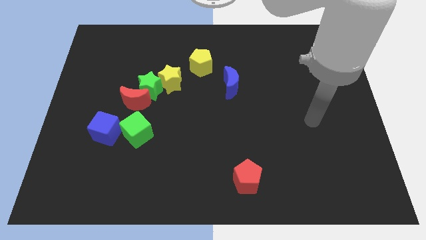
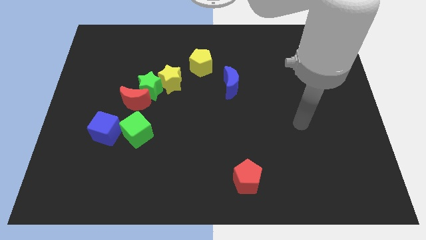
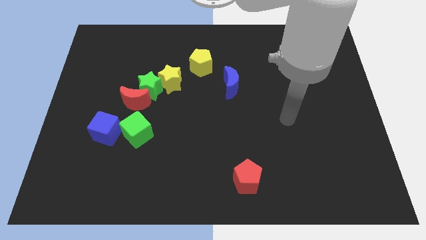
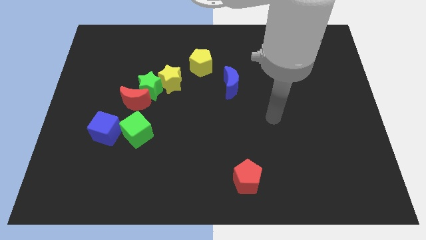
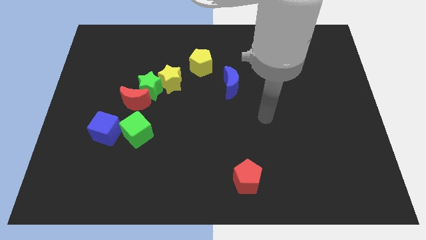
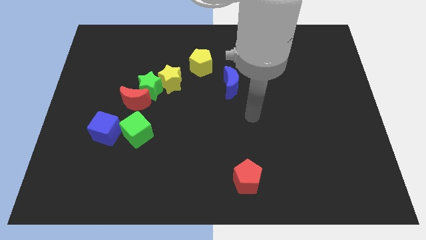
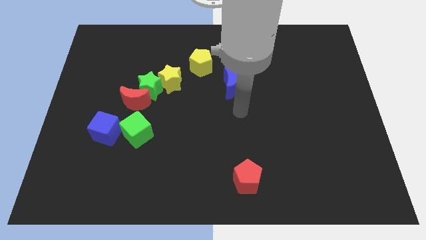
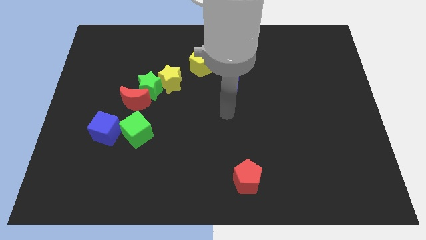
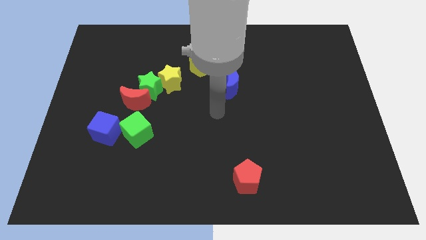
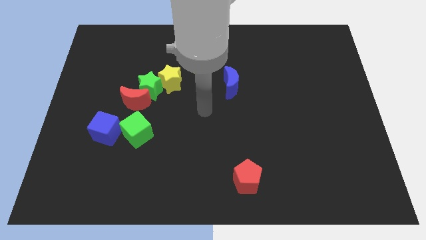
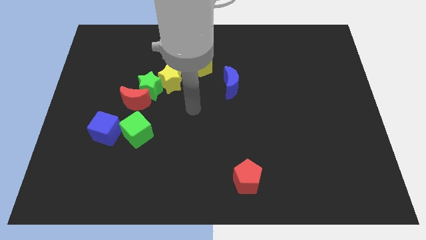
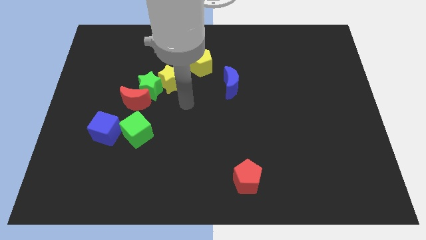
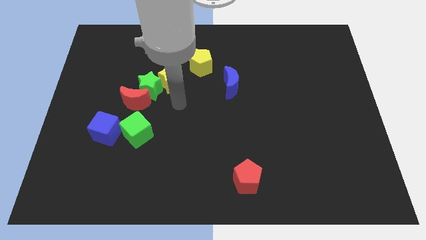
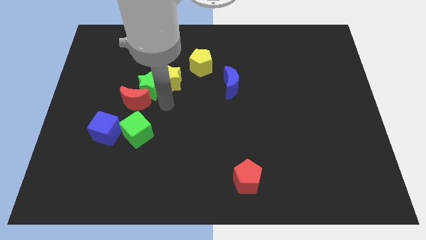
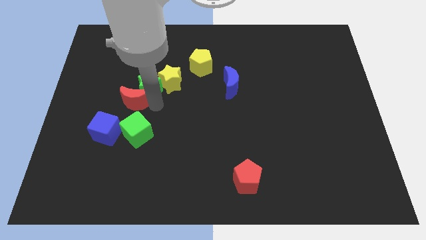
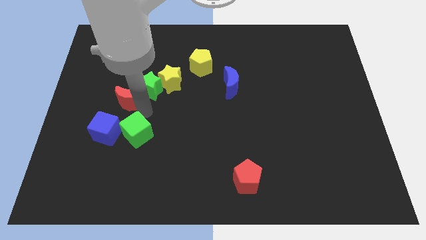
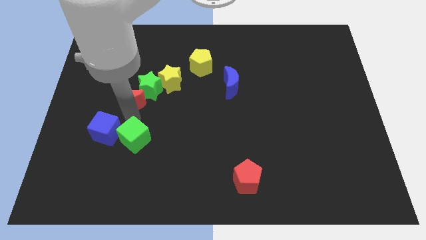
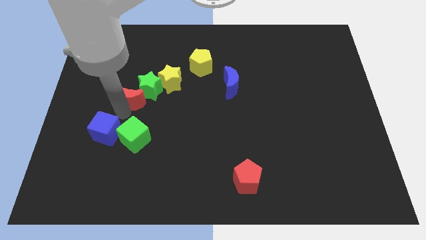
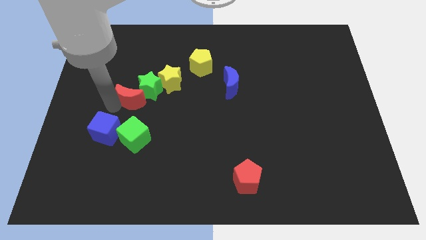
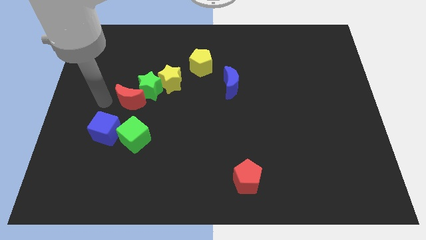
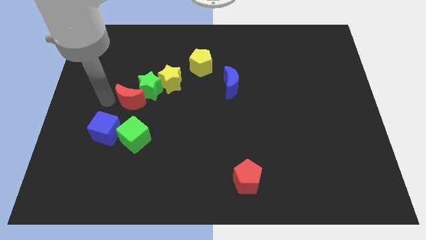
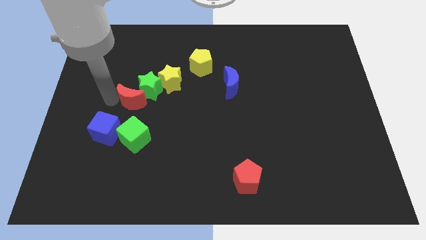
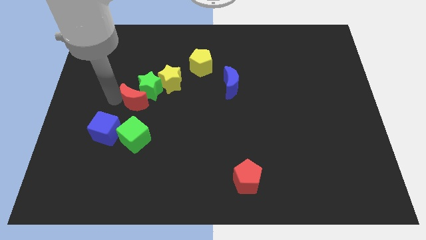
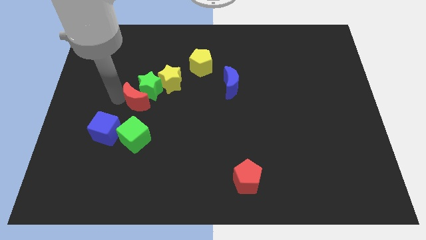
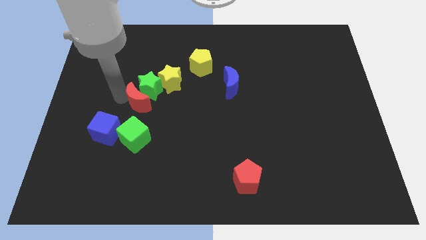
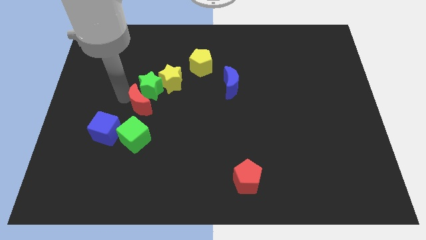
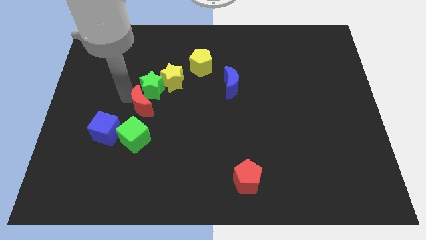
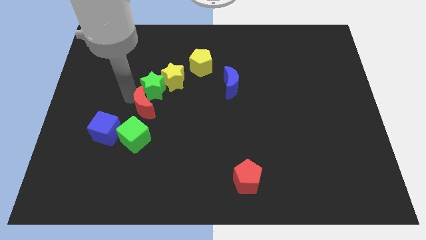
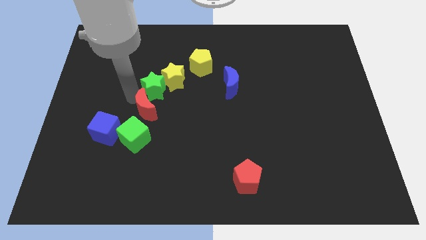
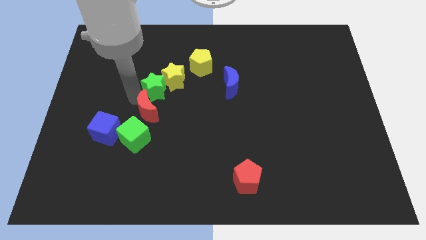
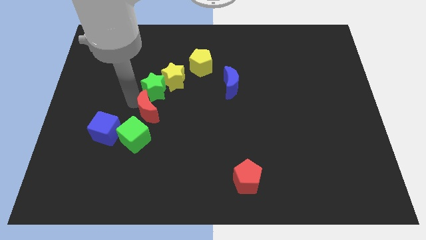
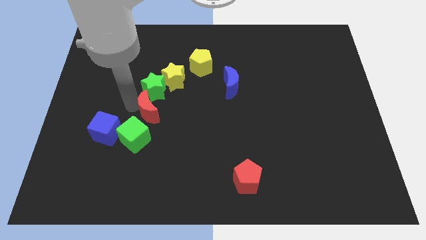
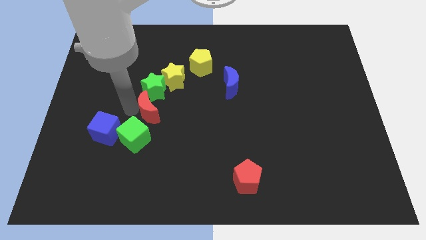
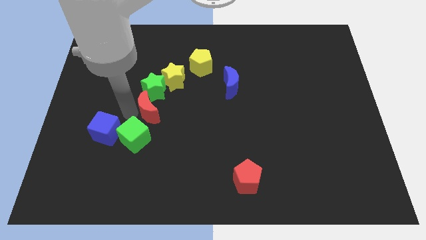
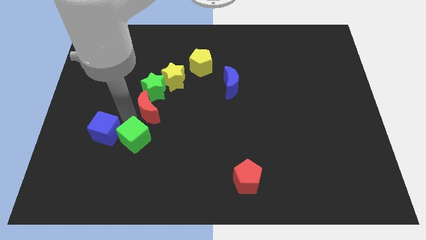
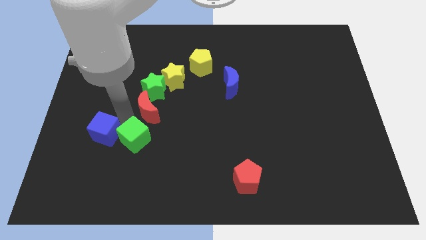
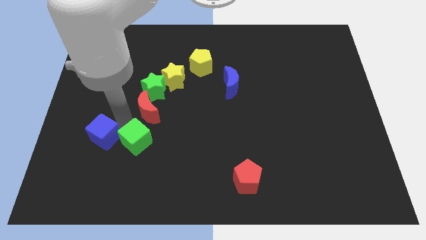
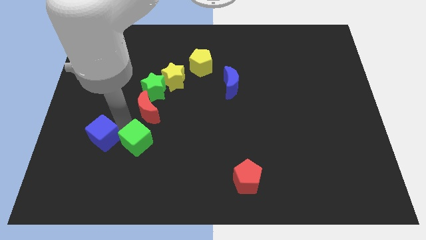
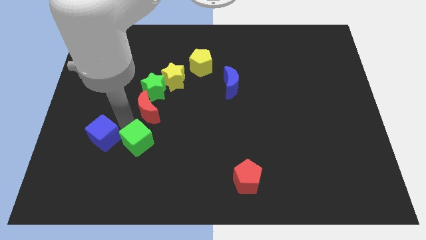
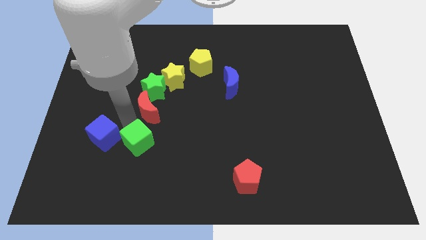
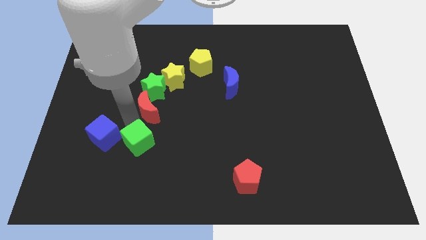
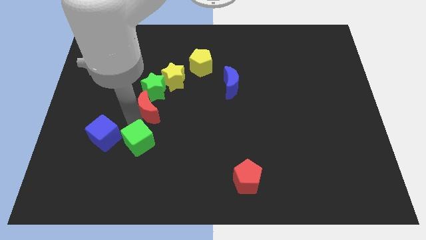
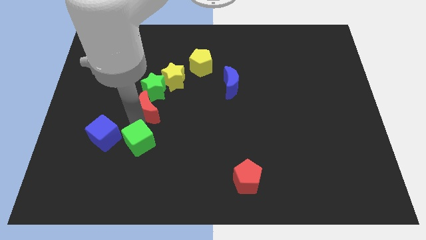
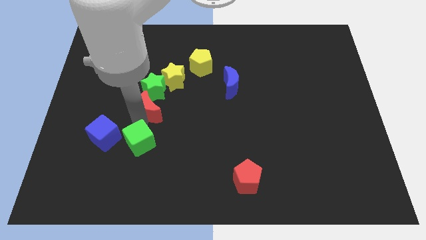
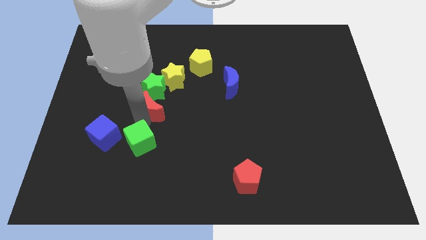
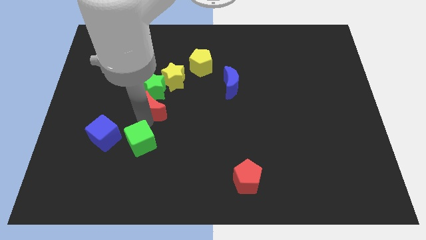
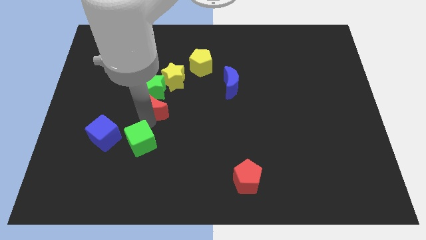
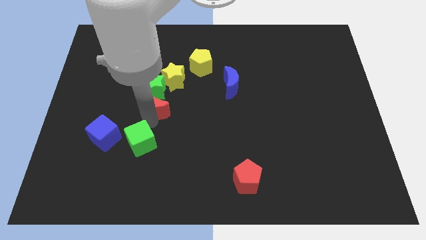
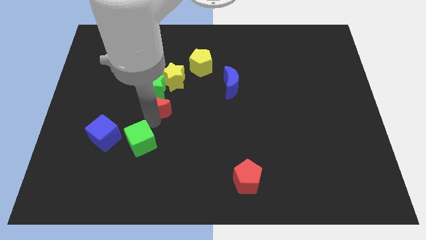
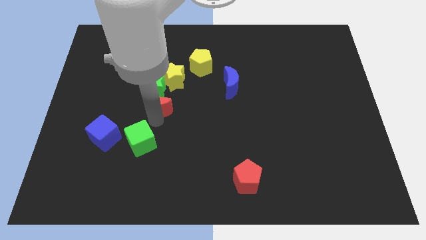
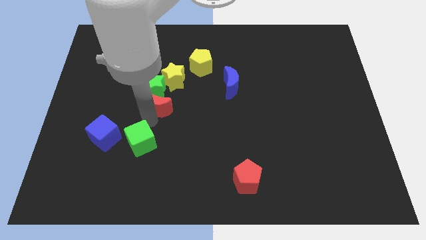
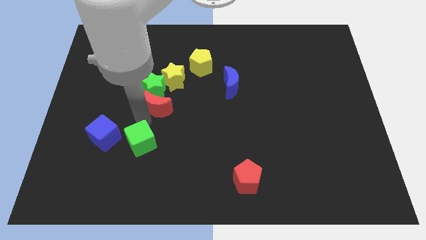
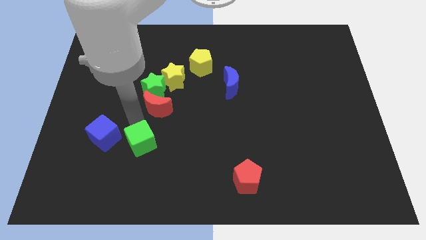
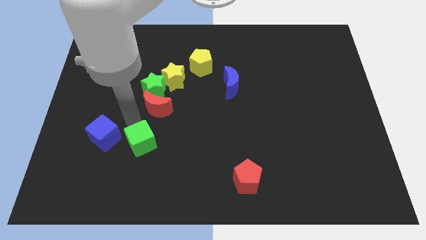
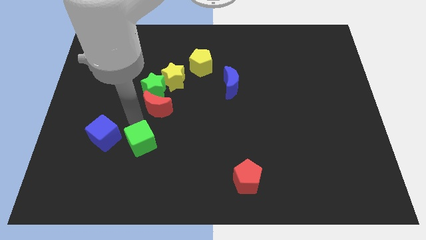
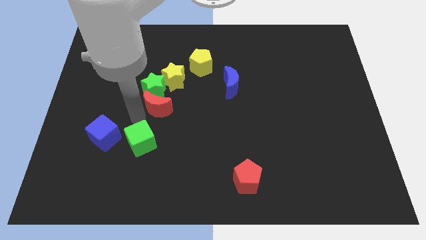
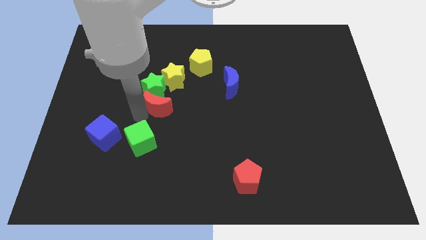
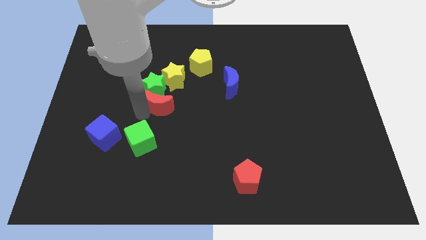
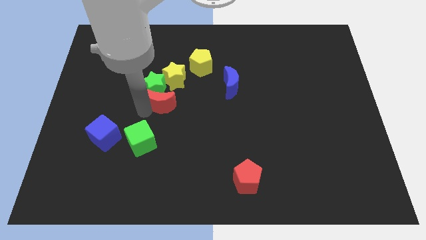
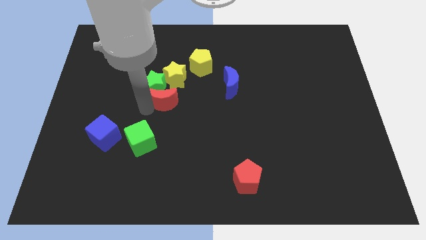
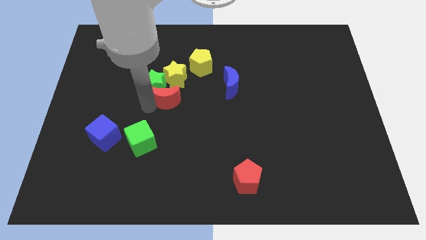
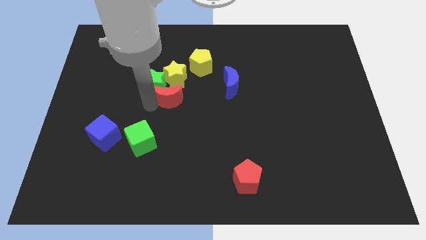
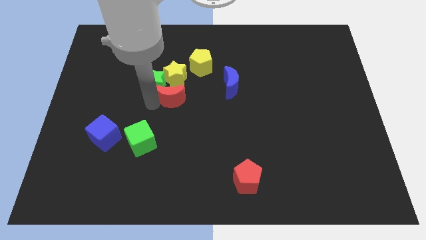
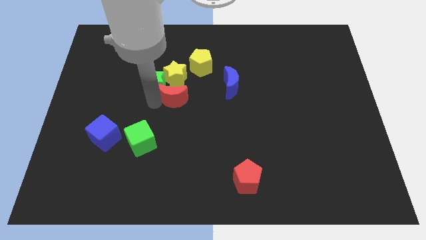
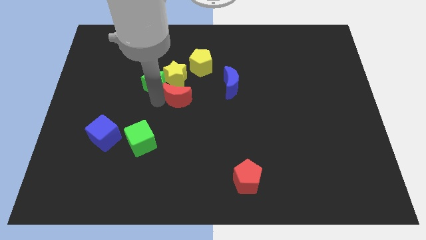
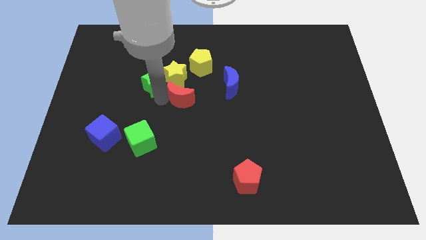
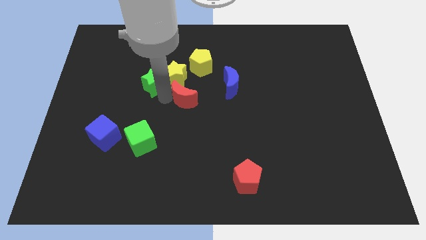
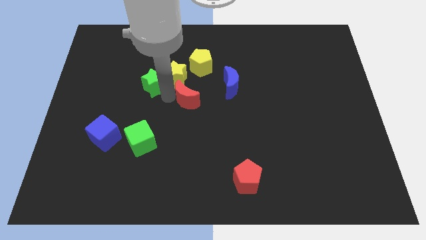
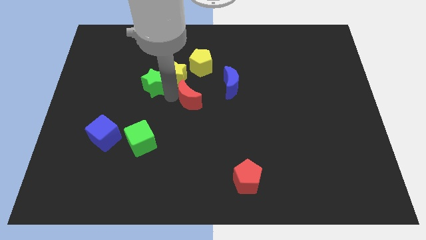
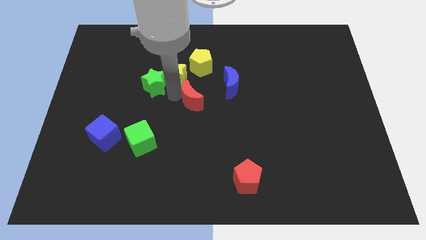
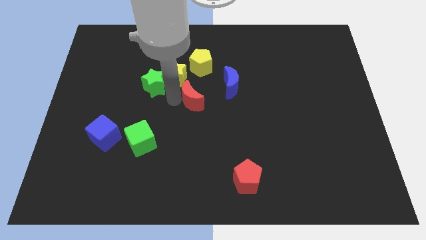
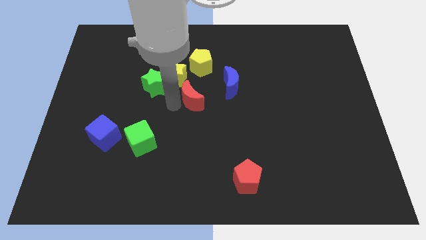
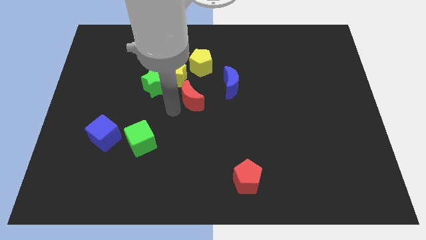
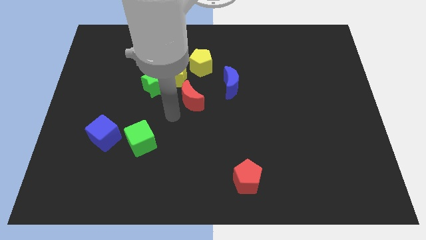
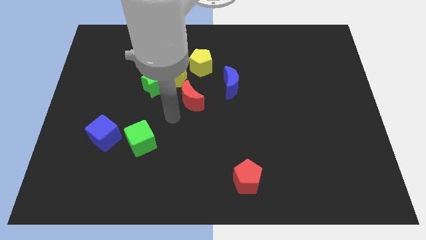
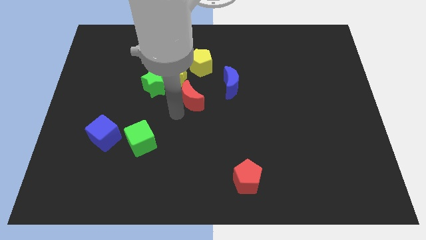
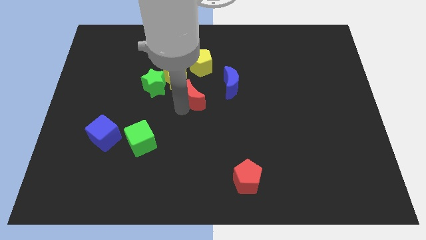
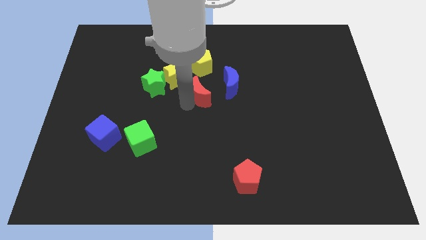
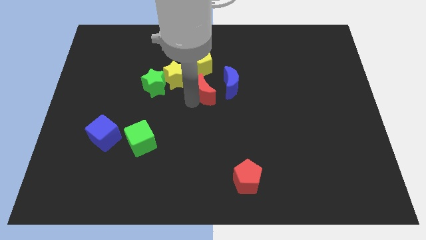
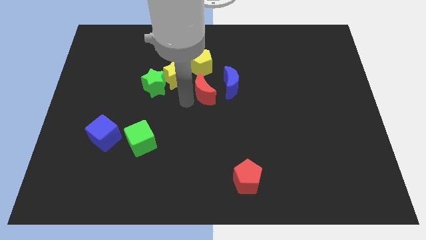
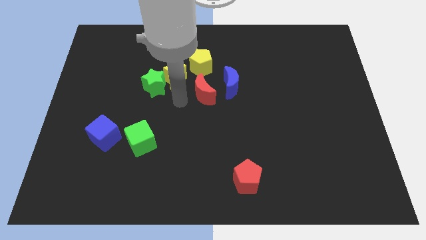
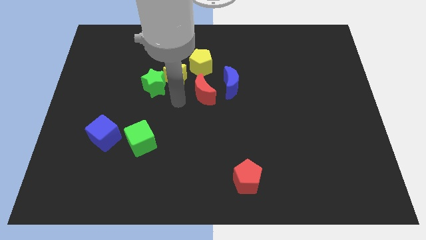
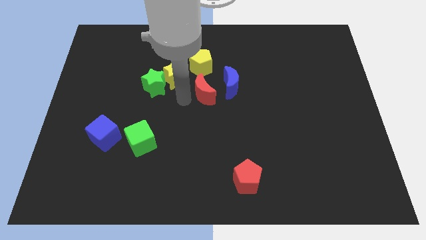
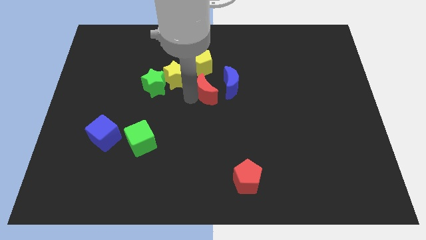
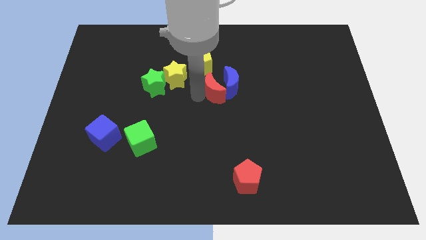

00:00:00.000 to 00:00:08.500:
move the red moon next to the blue moon
